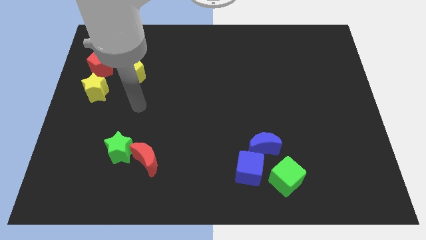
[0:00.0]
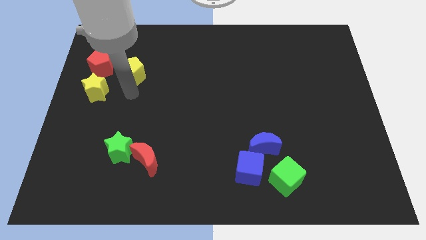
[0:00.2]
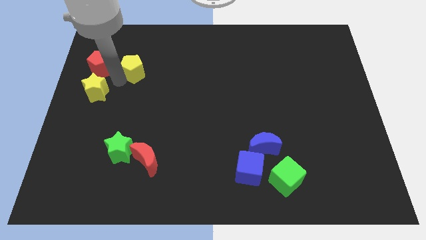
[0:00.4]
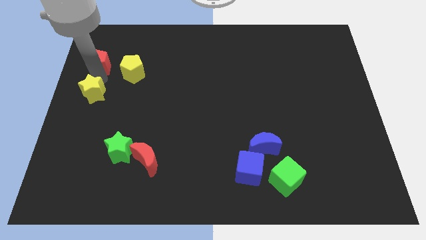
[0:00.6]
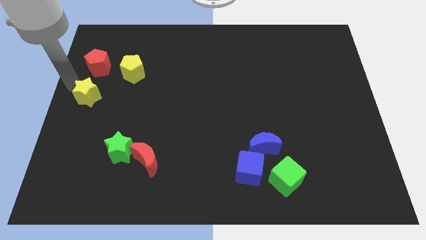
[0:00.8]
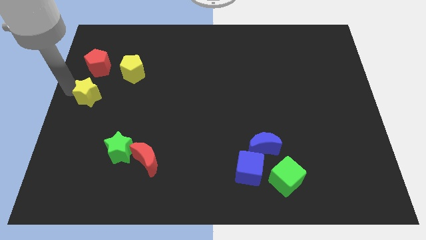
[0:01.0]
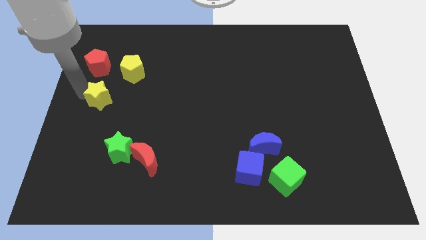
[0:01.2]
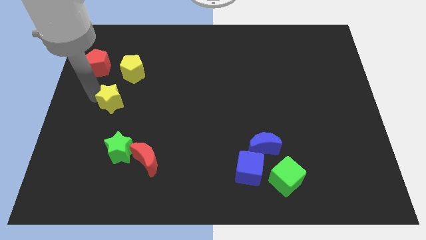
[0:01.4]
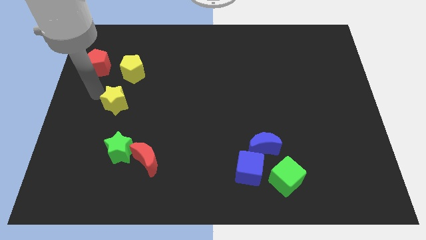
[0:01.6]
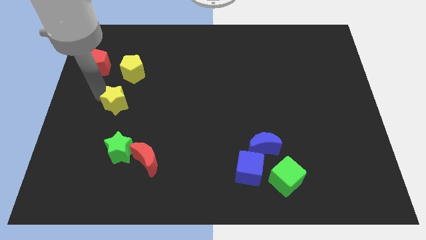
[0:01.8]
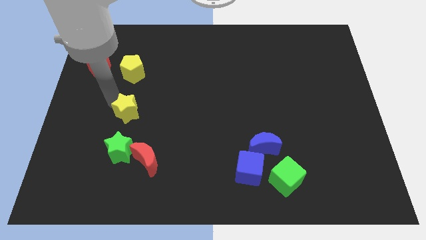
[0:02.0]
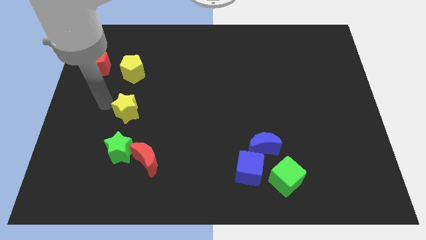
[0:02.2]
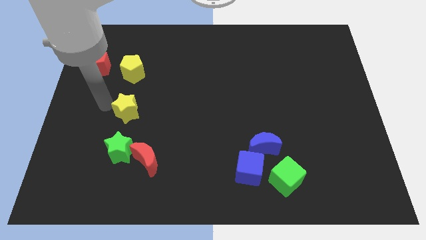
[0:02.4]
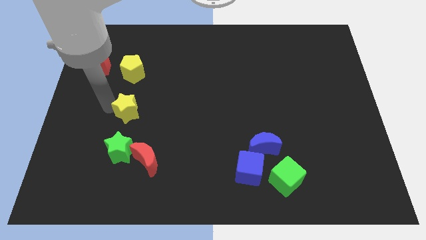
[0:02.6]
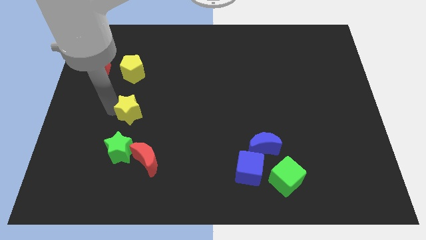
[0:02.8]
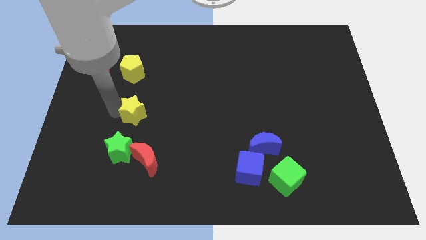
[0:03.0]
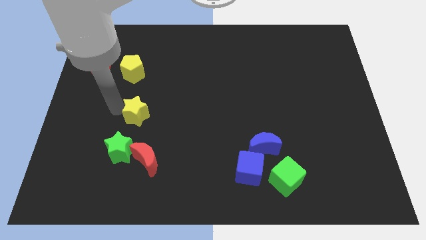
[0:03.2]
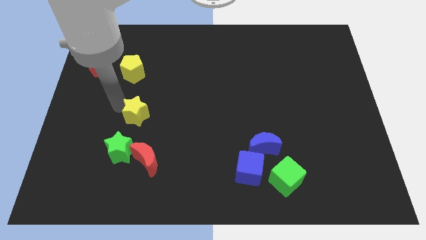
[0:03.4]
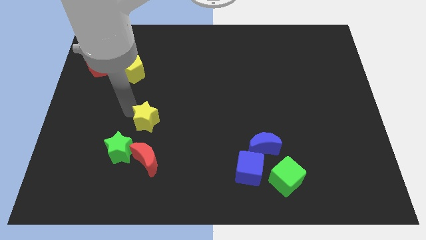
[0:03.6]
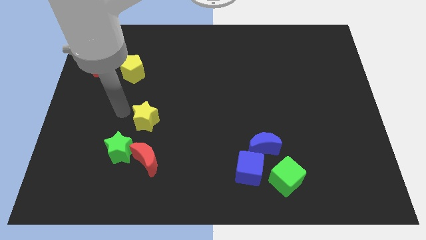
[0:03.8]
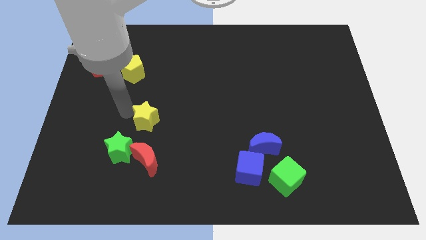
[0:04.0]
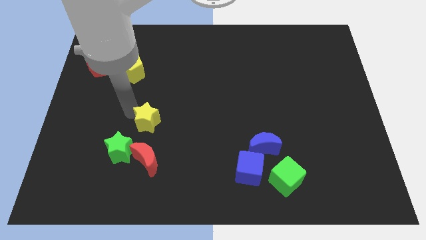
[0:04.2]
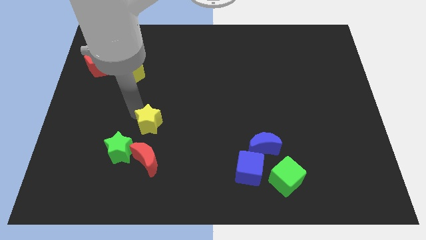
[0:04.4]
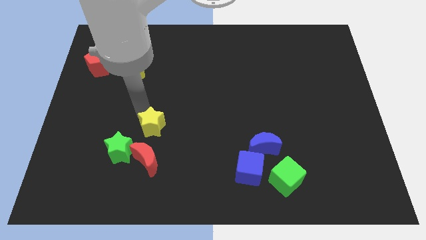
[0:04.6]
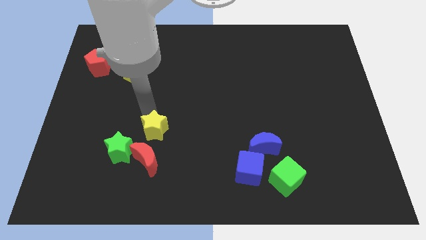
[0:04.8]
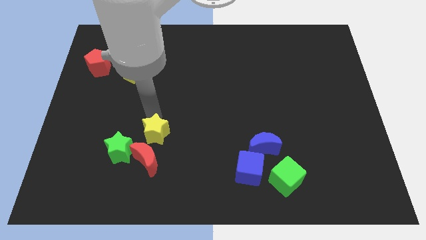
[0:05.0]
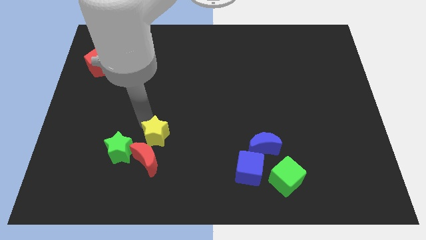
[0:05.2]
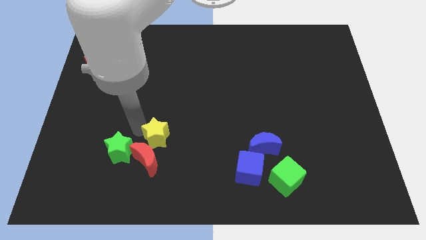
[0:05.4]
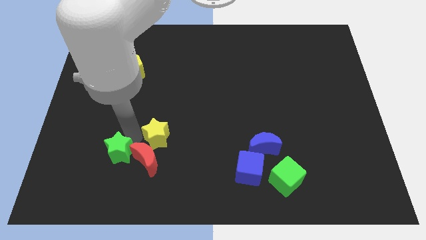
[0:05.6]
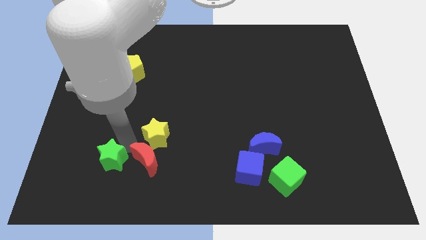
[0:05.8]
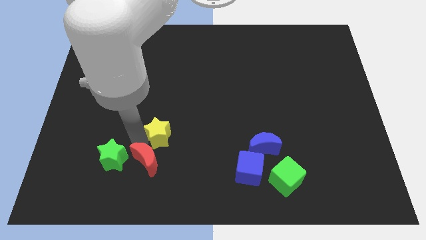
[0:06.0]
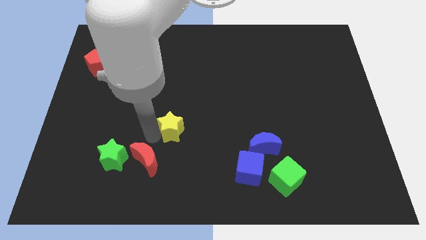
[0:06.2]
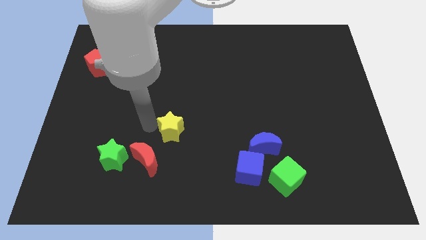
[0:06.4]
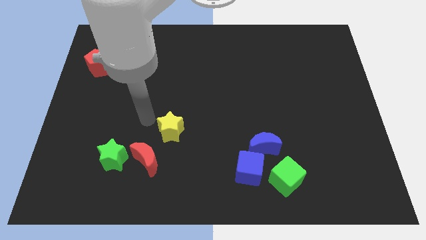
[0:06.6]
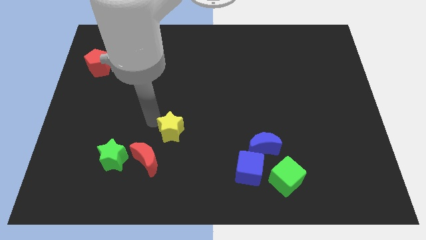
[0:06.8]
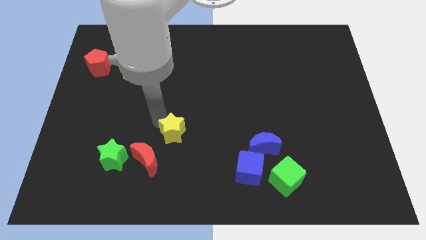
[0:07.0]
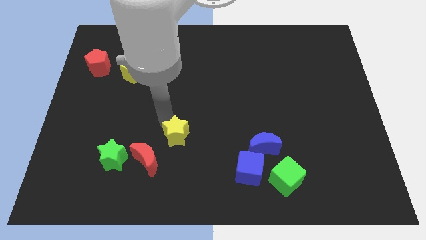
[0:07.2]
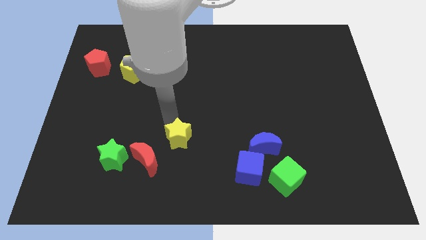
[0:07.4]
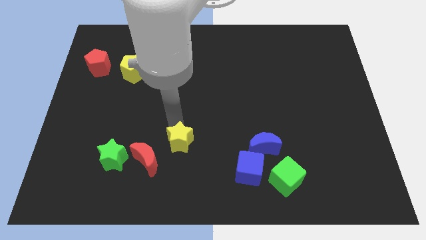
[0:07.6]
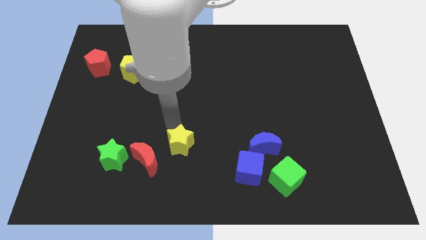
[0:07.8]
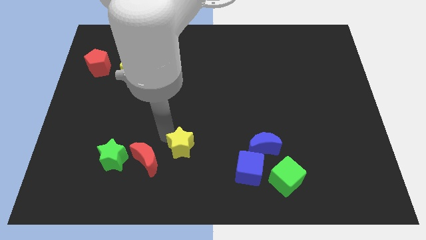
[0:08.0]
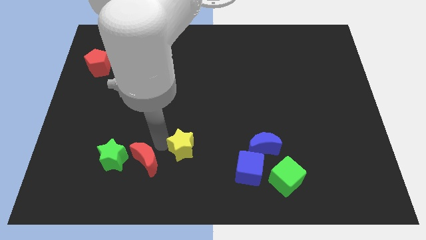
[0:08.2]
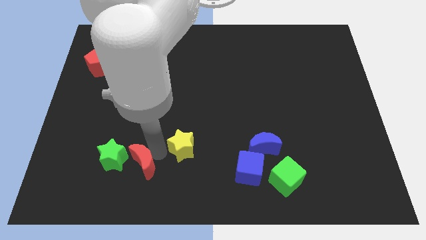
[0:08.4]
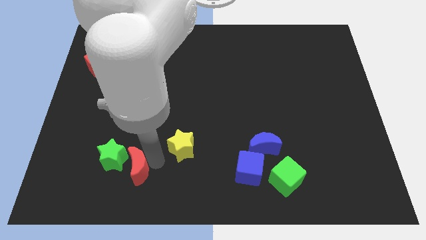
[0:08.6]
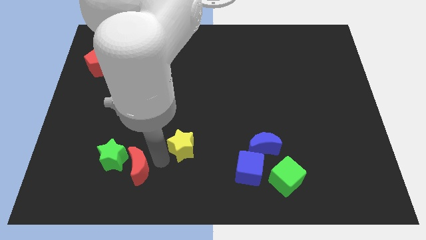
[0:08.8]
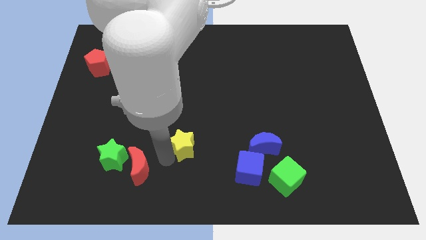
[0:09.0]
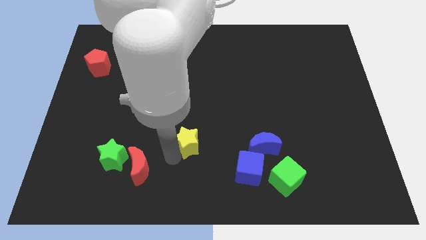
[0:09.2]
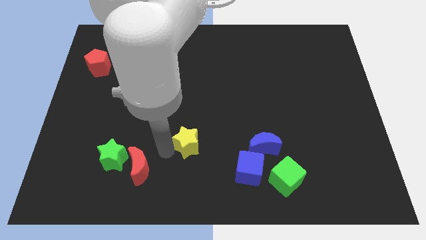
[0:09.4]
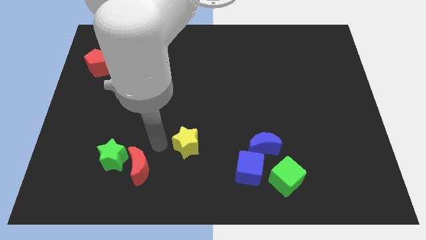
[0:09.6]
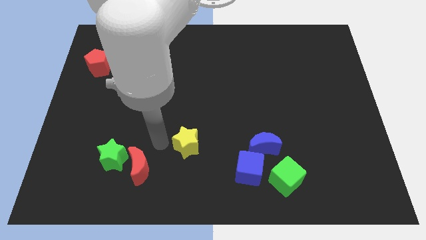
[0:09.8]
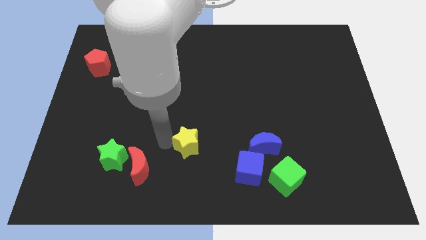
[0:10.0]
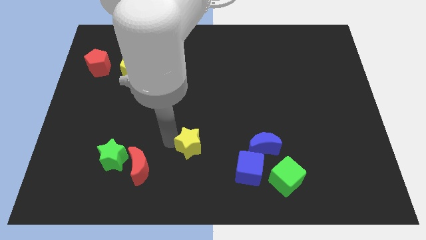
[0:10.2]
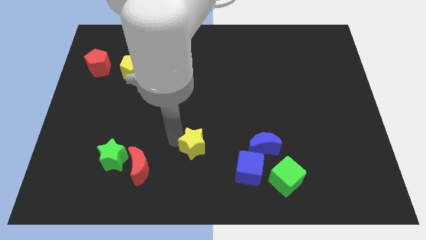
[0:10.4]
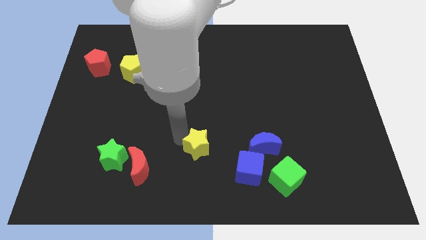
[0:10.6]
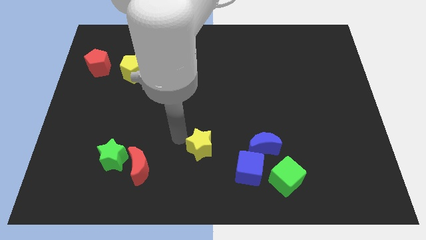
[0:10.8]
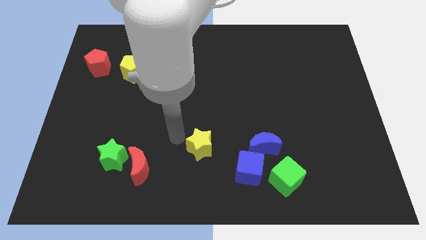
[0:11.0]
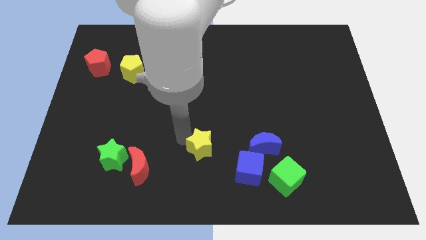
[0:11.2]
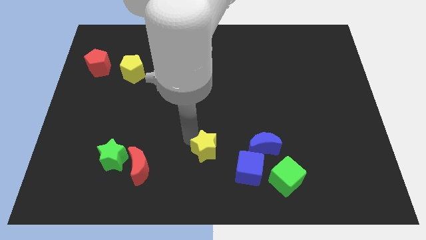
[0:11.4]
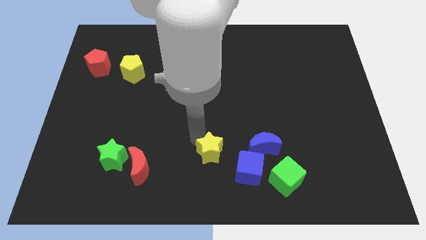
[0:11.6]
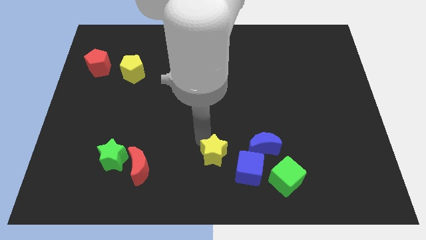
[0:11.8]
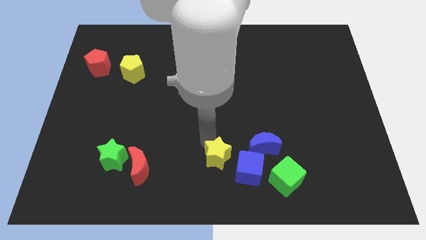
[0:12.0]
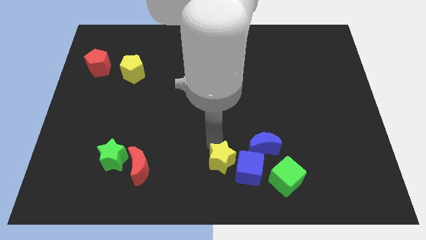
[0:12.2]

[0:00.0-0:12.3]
push the yellow star towards the blue cube

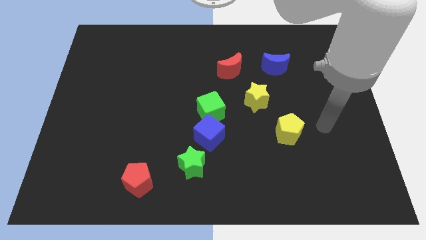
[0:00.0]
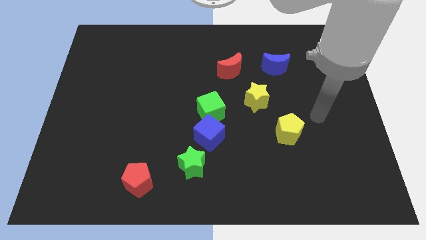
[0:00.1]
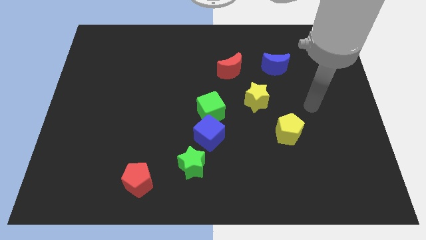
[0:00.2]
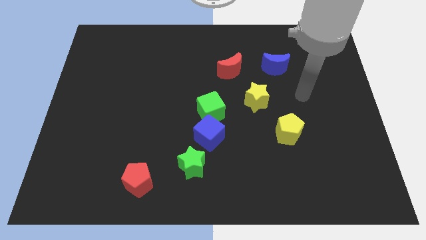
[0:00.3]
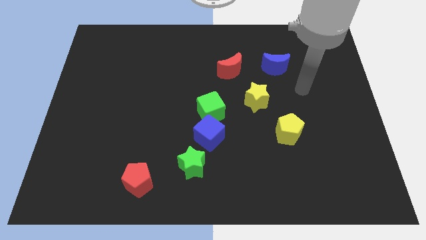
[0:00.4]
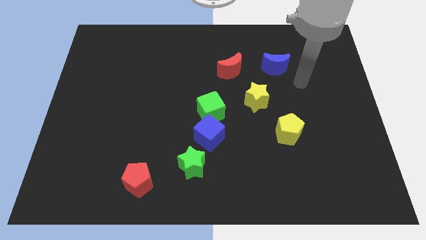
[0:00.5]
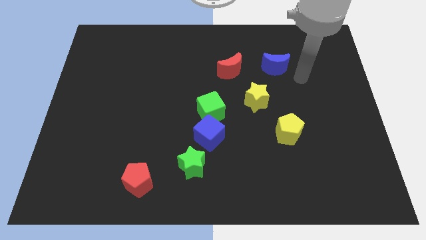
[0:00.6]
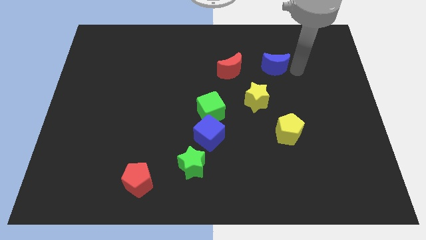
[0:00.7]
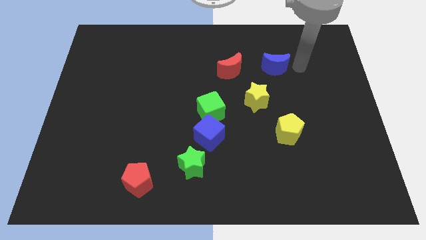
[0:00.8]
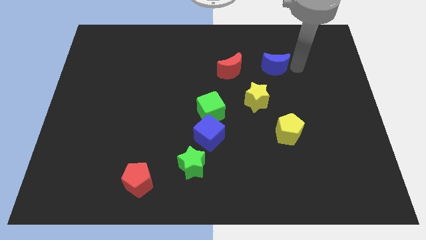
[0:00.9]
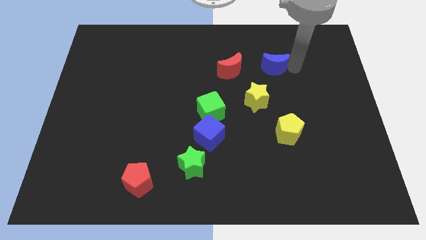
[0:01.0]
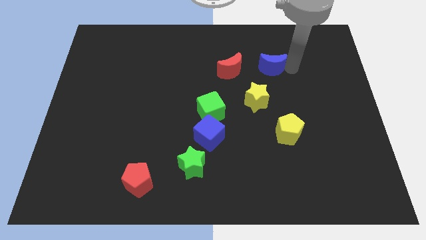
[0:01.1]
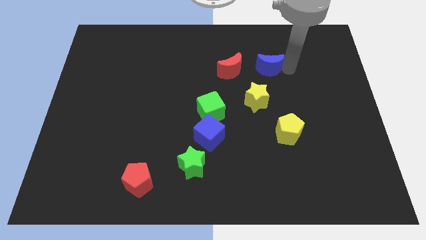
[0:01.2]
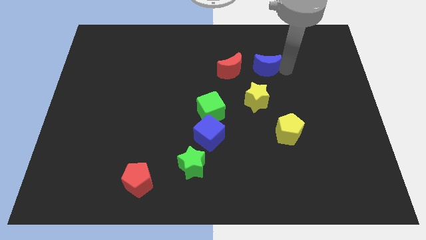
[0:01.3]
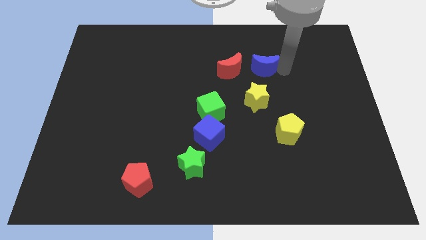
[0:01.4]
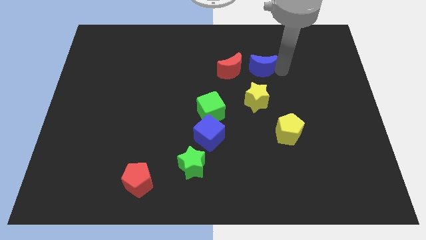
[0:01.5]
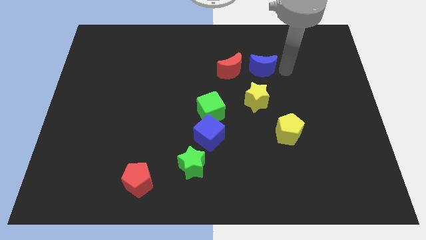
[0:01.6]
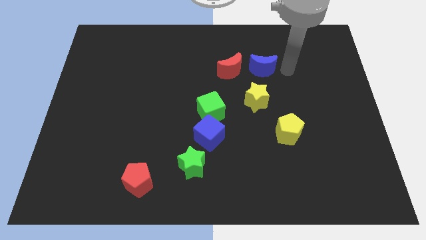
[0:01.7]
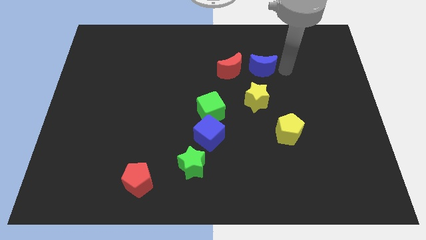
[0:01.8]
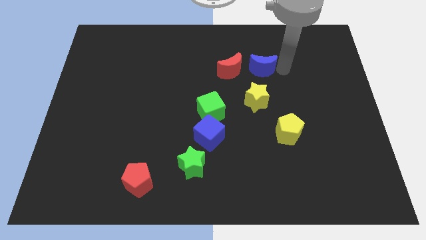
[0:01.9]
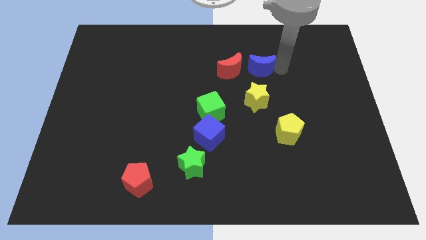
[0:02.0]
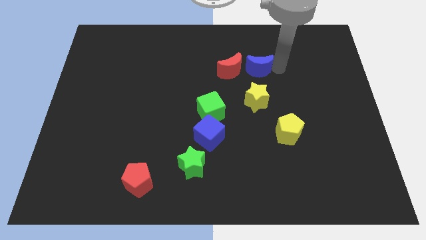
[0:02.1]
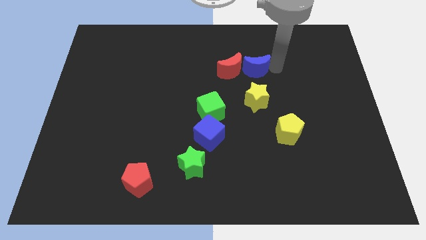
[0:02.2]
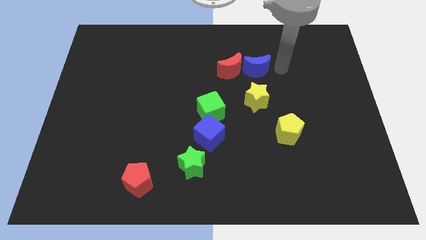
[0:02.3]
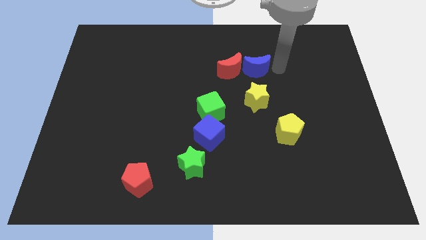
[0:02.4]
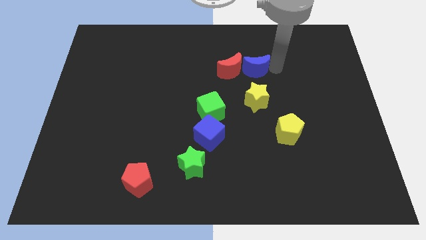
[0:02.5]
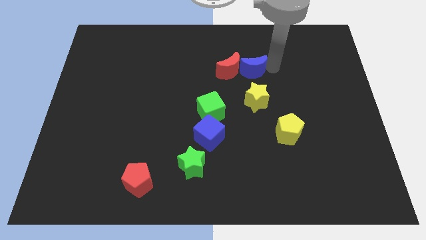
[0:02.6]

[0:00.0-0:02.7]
put the blue moon next to the red moon
